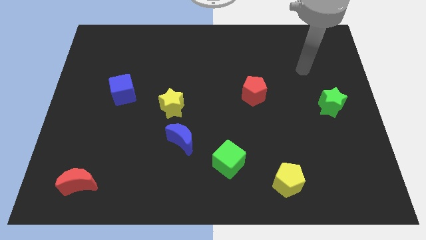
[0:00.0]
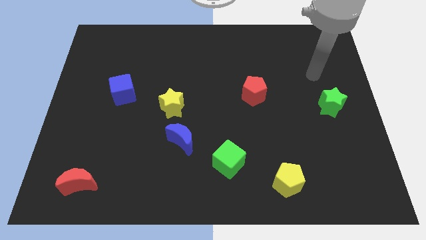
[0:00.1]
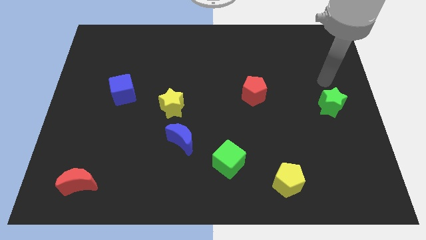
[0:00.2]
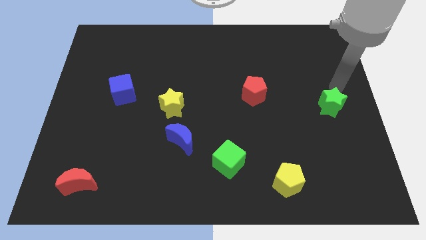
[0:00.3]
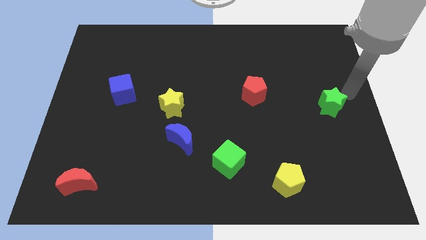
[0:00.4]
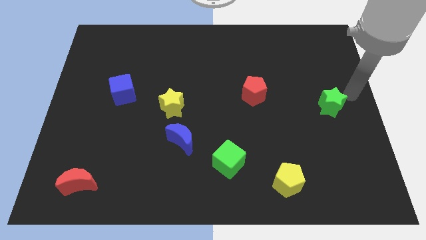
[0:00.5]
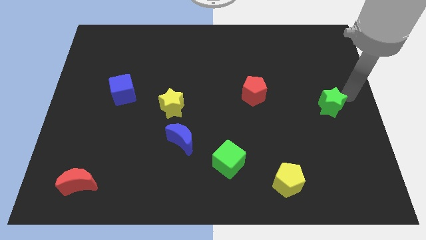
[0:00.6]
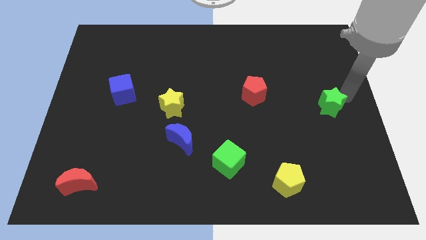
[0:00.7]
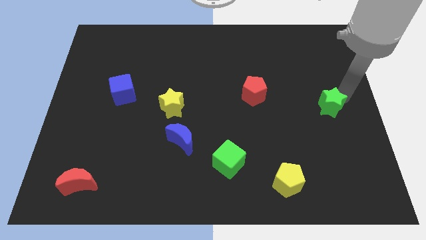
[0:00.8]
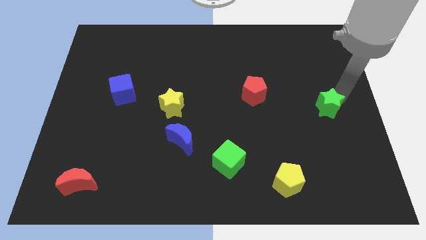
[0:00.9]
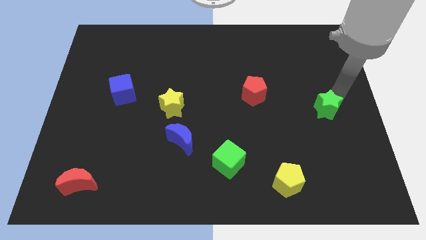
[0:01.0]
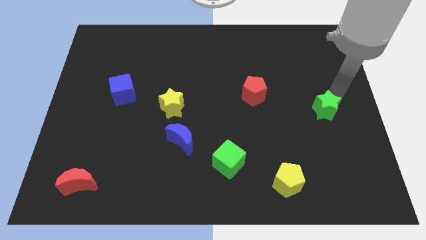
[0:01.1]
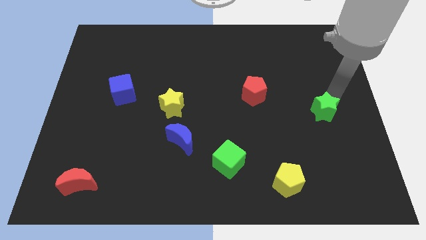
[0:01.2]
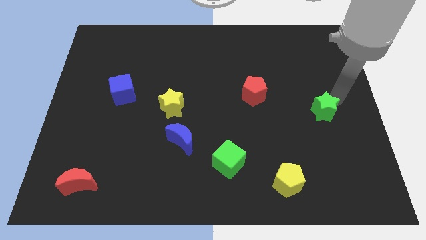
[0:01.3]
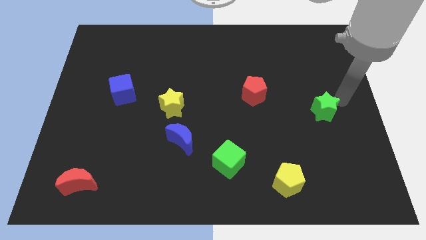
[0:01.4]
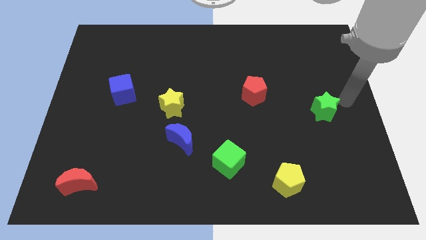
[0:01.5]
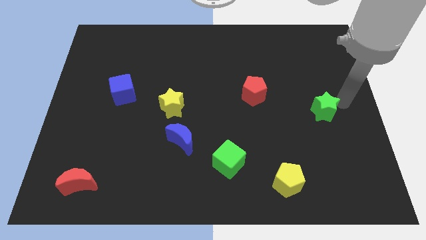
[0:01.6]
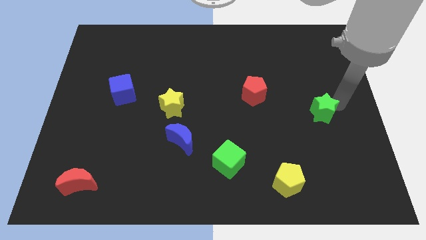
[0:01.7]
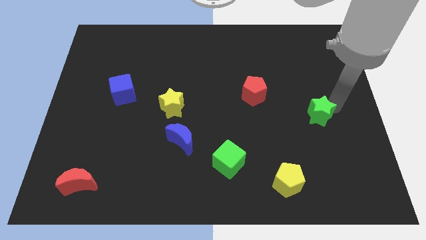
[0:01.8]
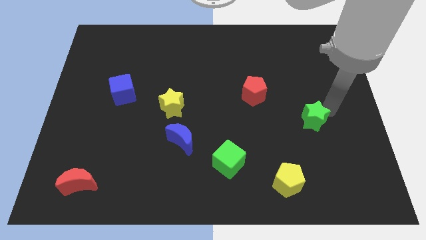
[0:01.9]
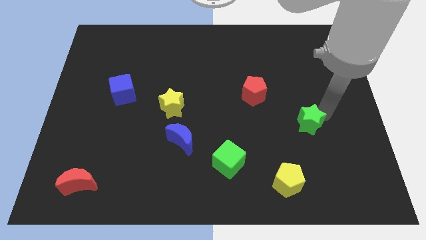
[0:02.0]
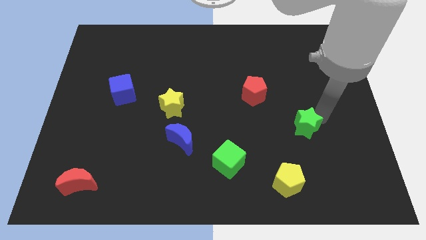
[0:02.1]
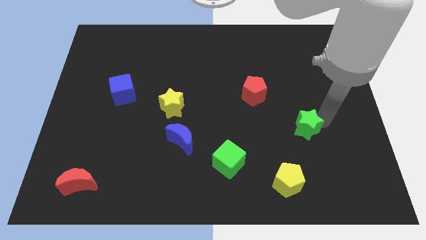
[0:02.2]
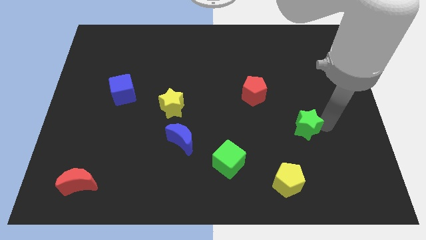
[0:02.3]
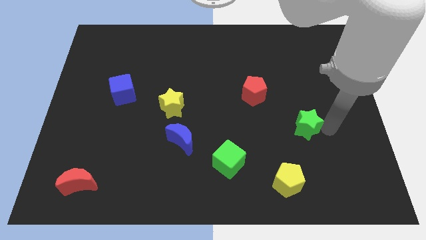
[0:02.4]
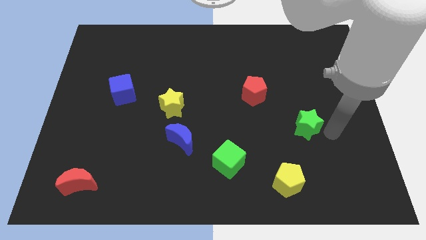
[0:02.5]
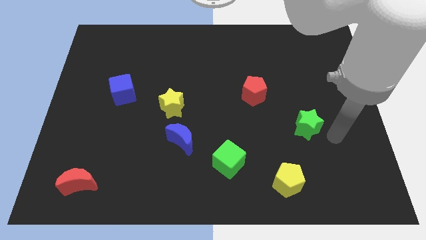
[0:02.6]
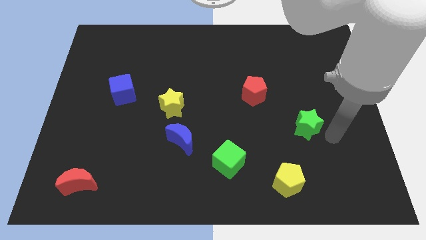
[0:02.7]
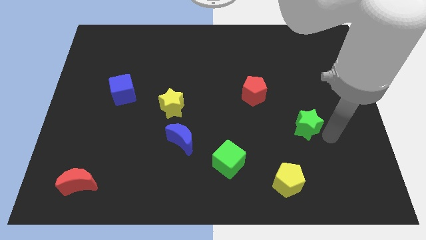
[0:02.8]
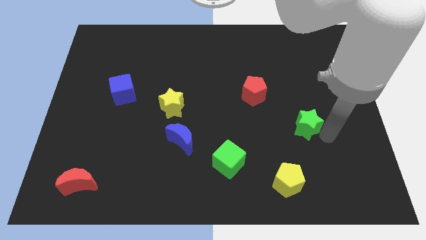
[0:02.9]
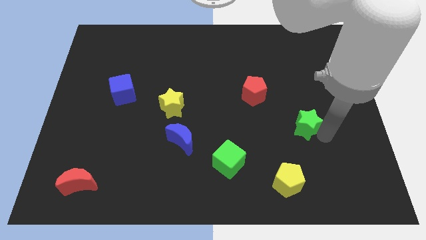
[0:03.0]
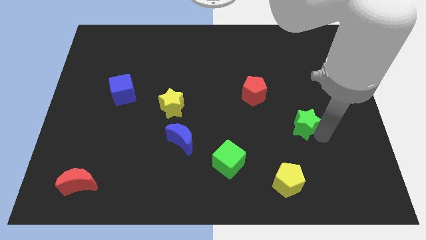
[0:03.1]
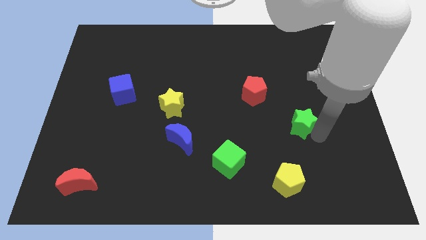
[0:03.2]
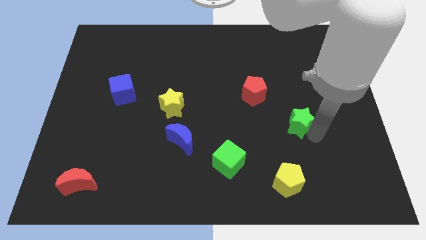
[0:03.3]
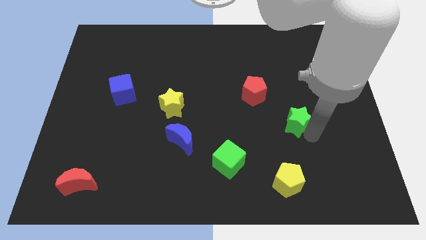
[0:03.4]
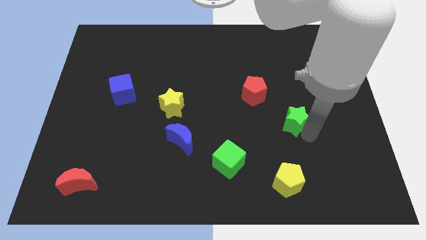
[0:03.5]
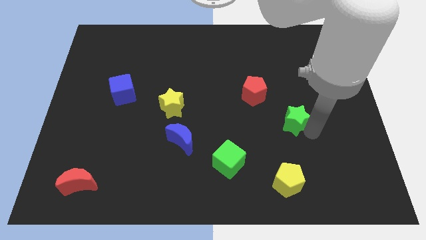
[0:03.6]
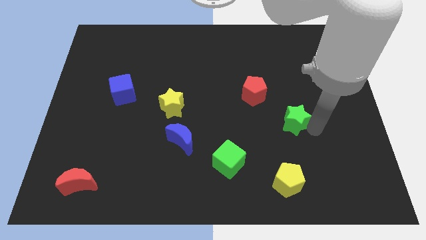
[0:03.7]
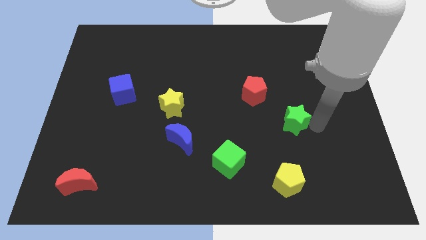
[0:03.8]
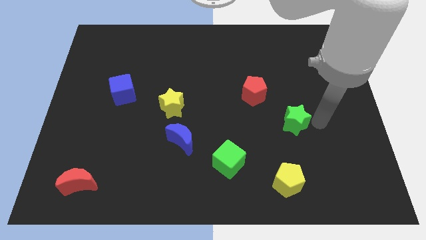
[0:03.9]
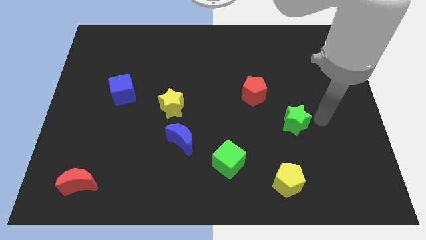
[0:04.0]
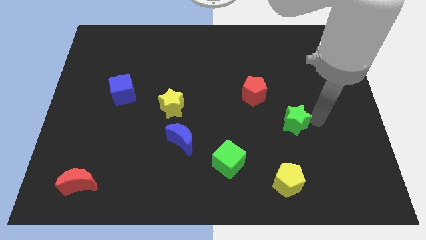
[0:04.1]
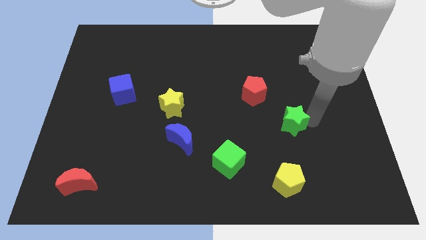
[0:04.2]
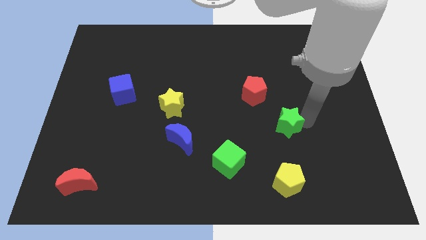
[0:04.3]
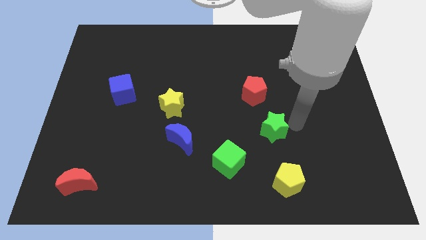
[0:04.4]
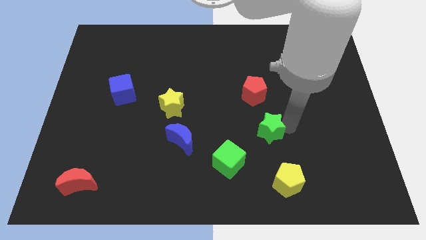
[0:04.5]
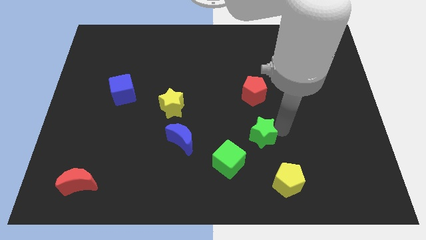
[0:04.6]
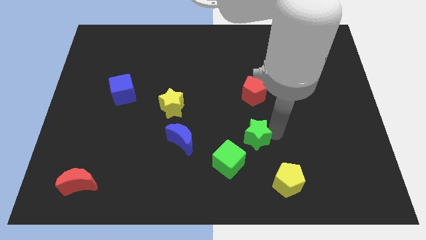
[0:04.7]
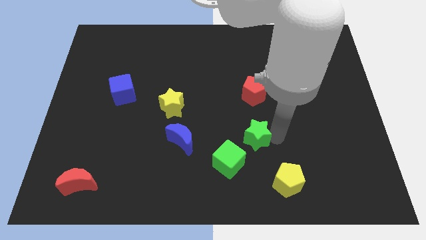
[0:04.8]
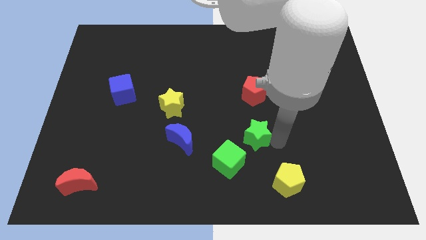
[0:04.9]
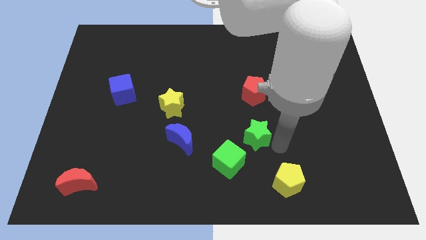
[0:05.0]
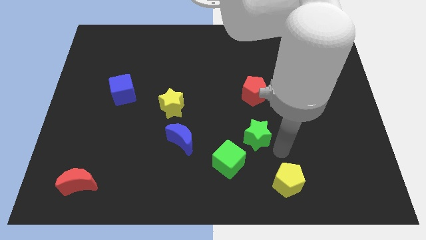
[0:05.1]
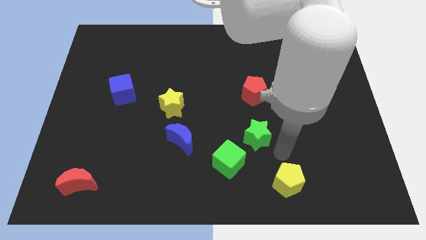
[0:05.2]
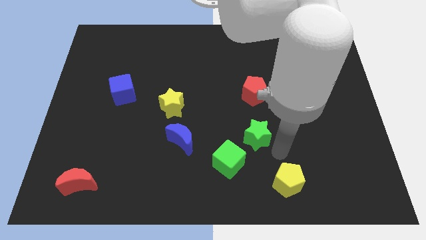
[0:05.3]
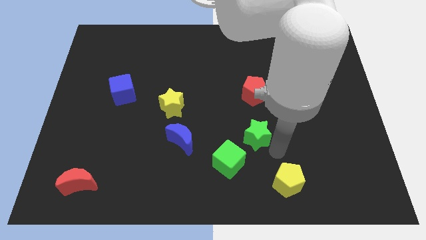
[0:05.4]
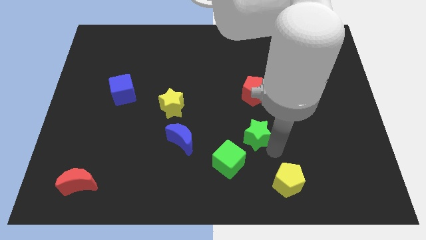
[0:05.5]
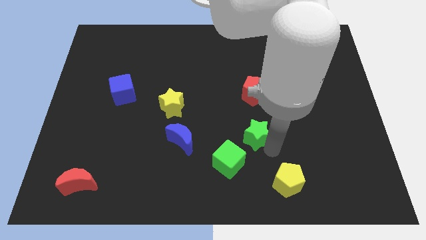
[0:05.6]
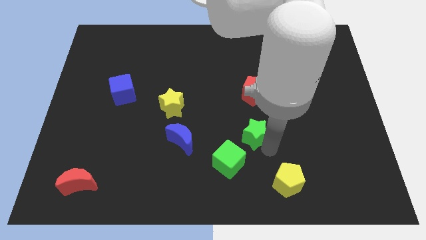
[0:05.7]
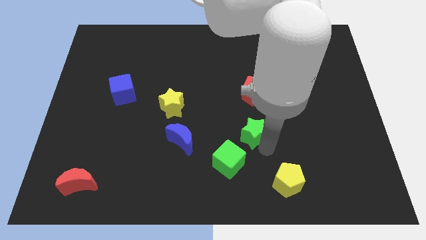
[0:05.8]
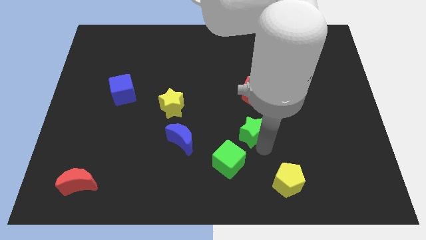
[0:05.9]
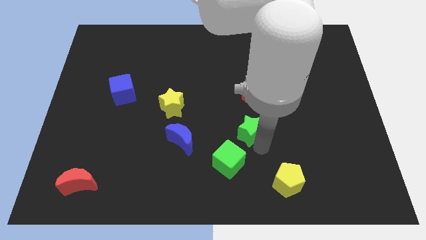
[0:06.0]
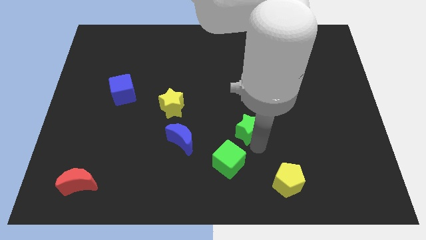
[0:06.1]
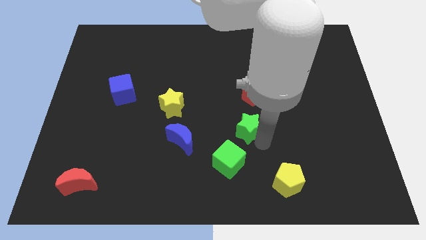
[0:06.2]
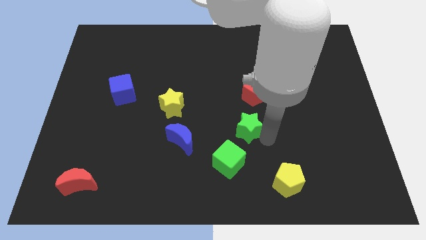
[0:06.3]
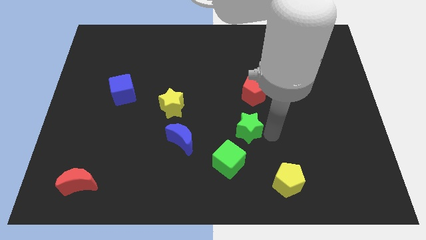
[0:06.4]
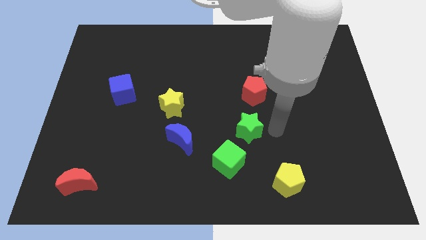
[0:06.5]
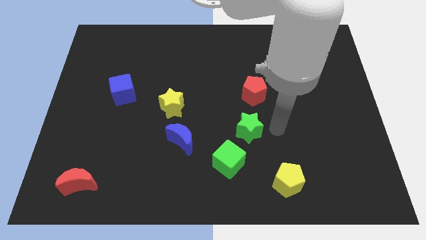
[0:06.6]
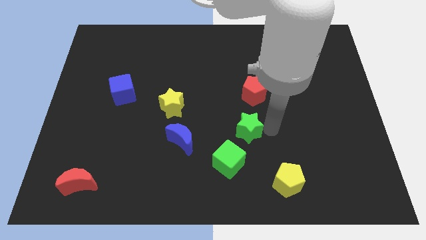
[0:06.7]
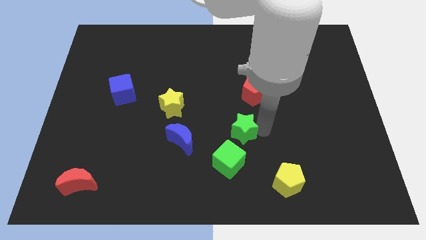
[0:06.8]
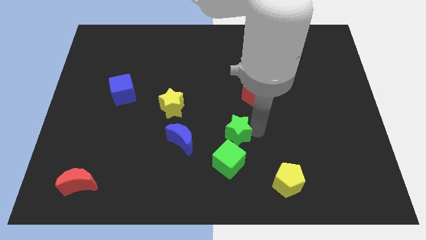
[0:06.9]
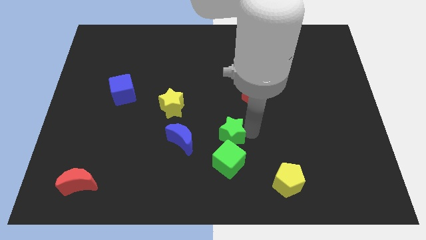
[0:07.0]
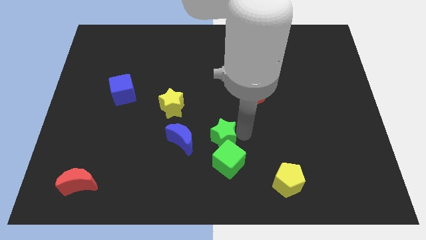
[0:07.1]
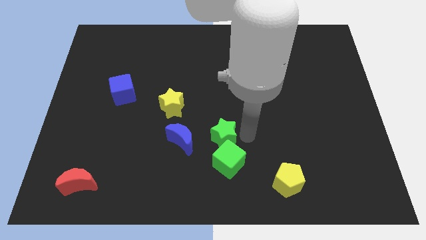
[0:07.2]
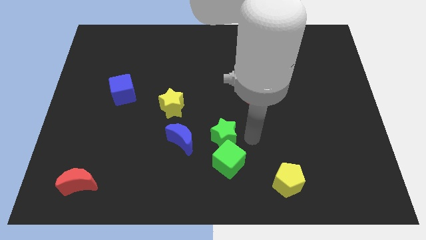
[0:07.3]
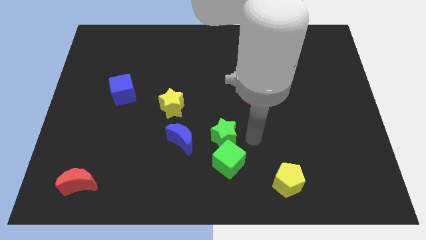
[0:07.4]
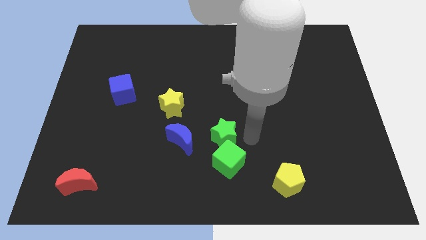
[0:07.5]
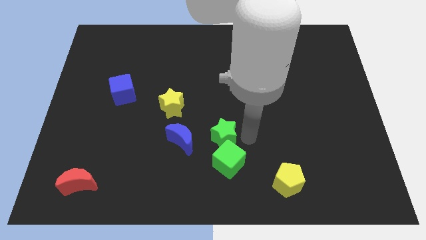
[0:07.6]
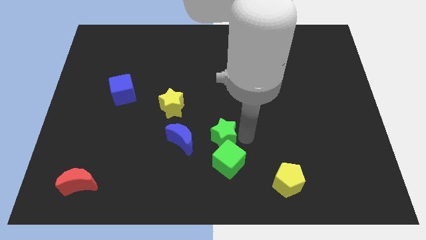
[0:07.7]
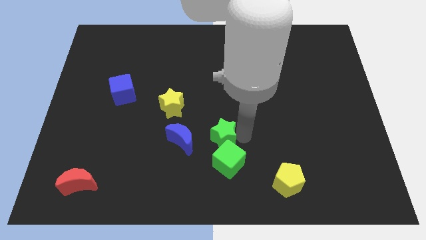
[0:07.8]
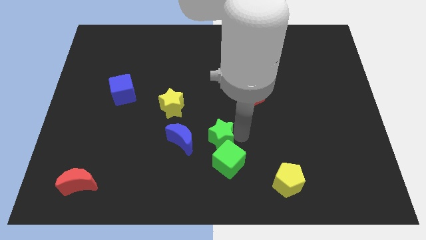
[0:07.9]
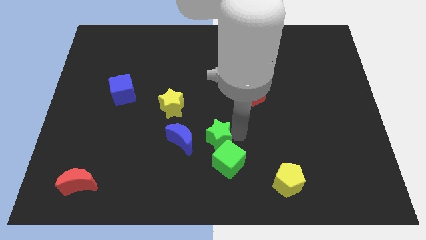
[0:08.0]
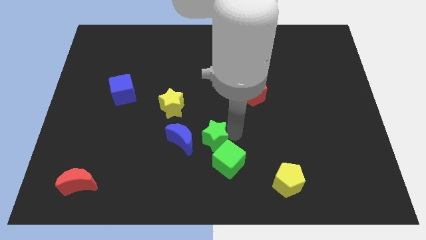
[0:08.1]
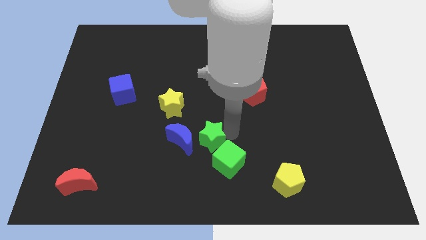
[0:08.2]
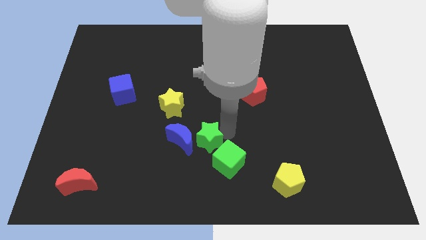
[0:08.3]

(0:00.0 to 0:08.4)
push the green star close to the blue moon
